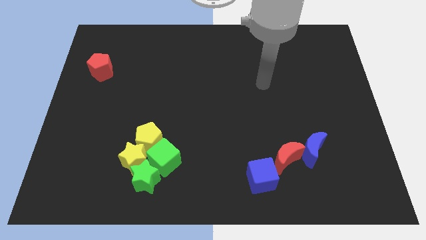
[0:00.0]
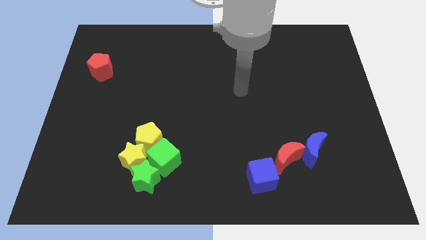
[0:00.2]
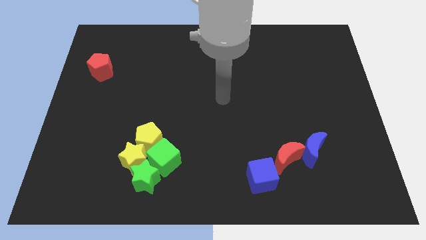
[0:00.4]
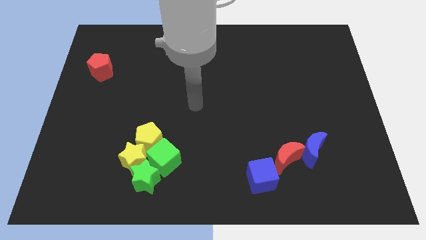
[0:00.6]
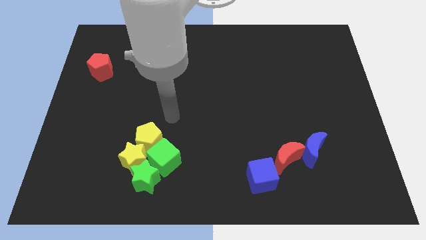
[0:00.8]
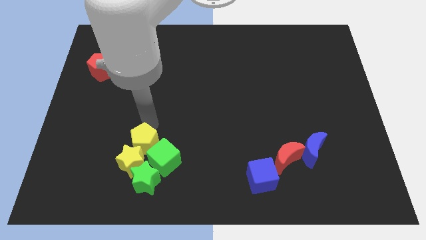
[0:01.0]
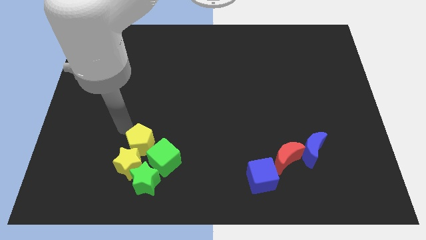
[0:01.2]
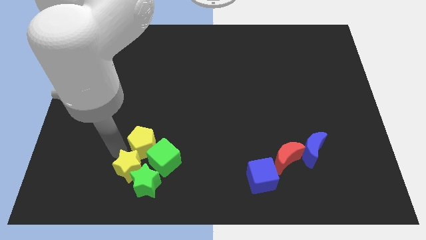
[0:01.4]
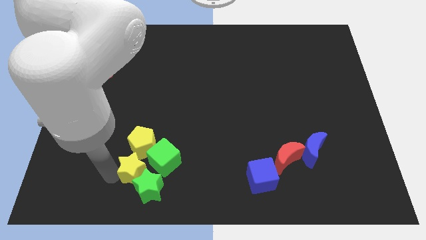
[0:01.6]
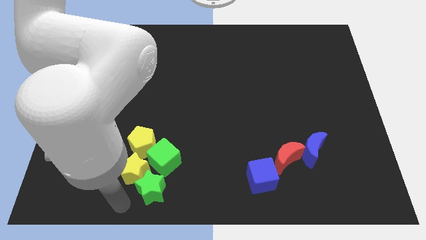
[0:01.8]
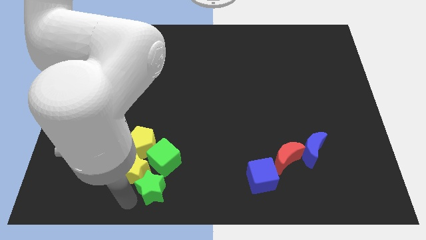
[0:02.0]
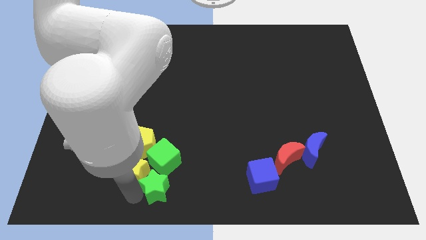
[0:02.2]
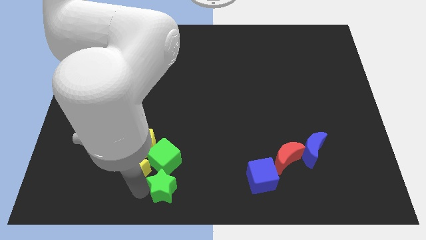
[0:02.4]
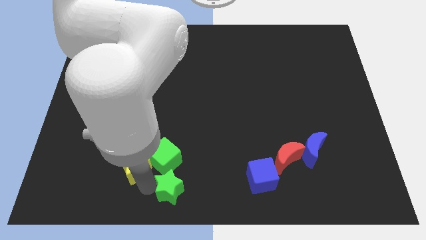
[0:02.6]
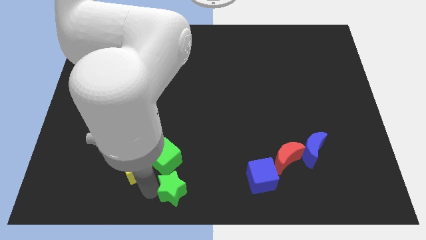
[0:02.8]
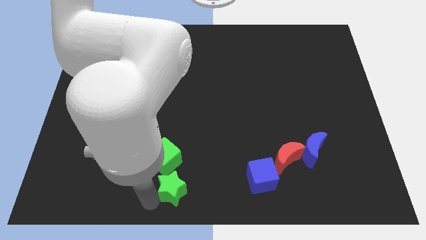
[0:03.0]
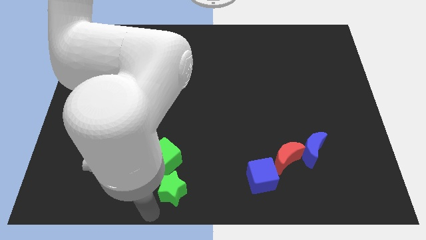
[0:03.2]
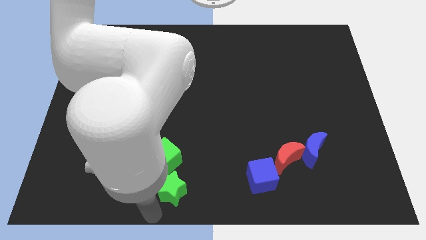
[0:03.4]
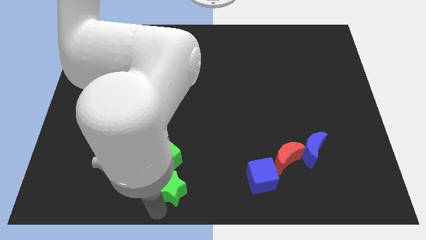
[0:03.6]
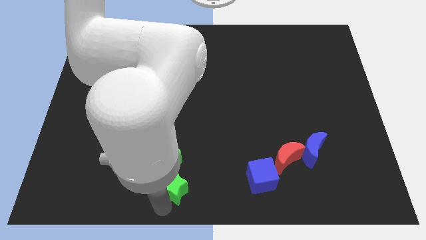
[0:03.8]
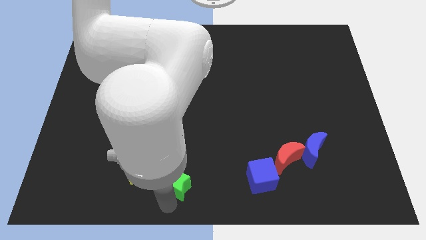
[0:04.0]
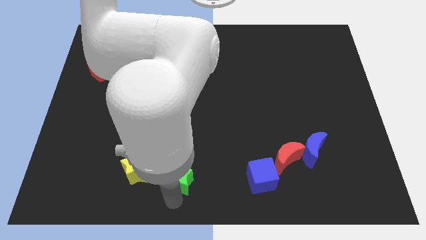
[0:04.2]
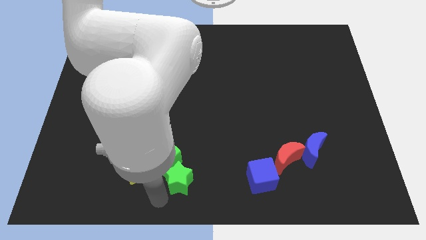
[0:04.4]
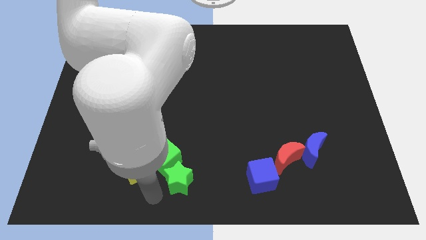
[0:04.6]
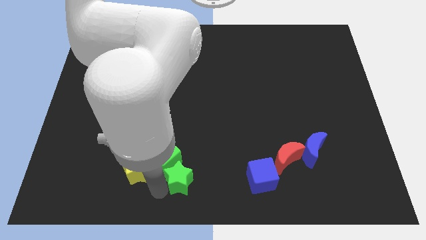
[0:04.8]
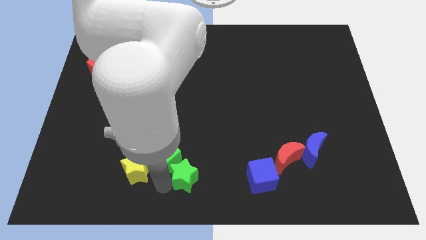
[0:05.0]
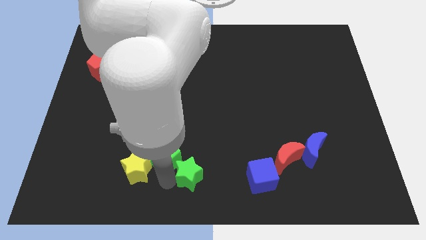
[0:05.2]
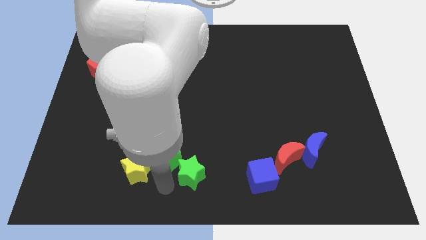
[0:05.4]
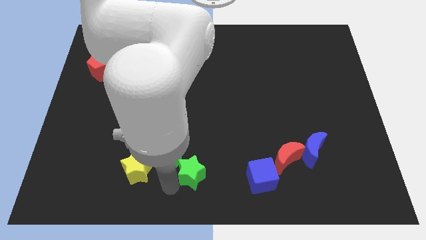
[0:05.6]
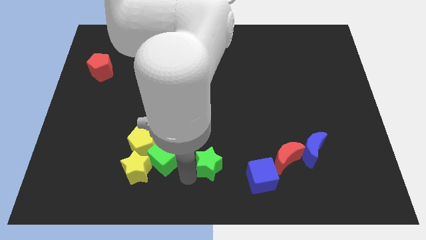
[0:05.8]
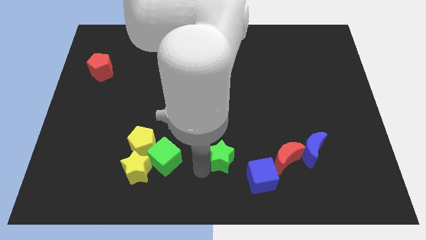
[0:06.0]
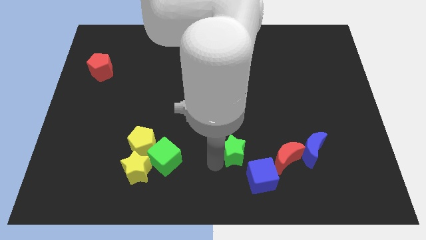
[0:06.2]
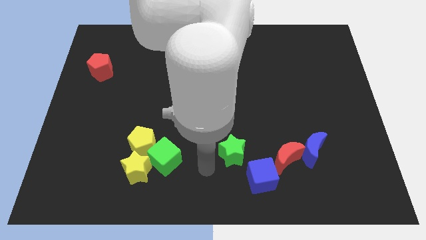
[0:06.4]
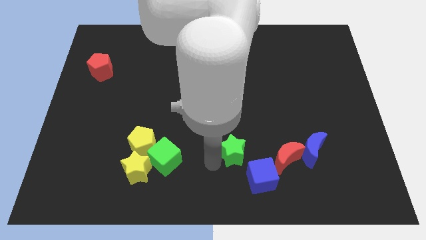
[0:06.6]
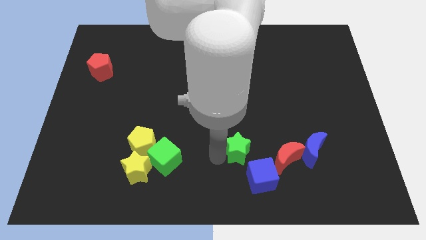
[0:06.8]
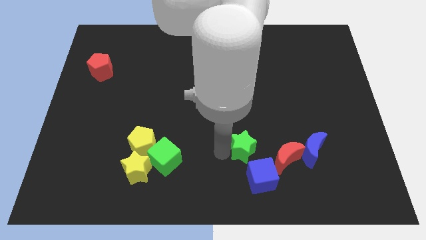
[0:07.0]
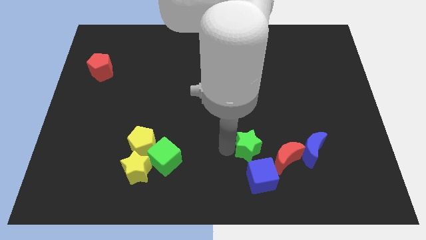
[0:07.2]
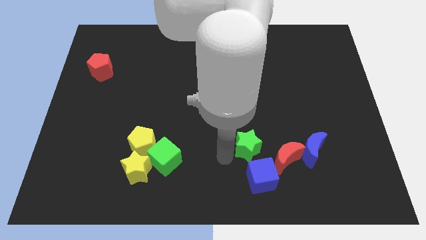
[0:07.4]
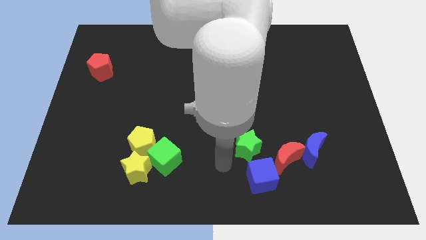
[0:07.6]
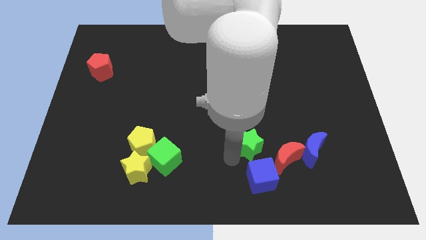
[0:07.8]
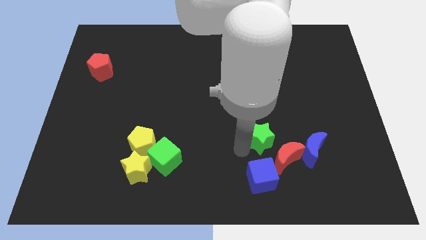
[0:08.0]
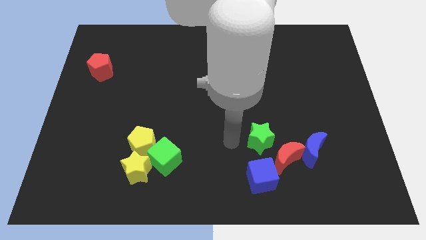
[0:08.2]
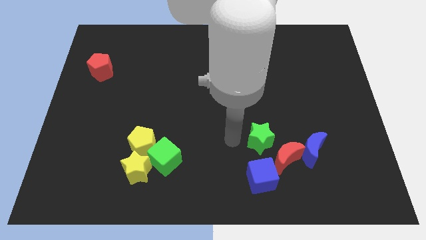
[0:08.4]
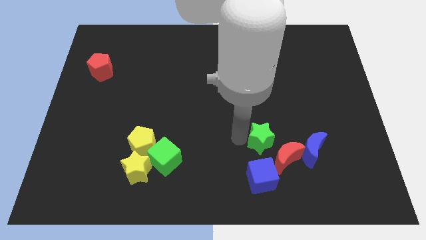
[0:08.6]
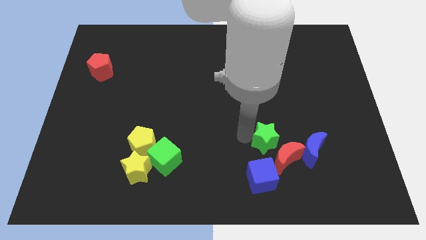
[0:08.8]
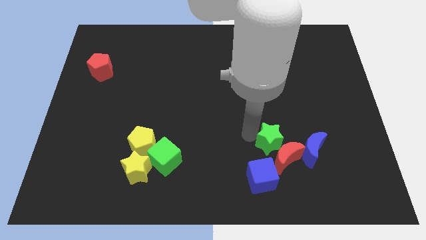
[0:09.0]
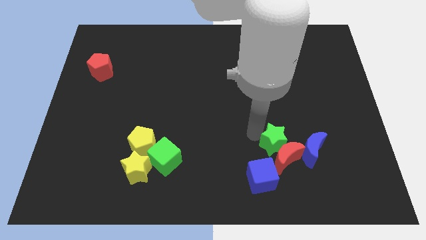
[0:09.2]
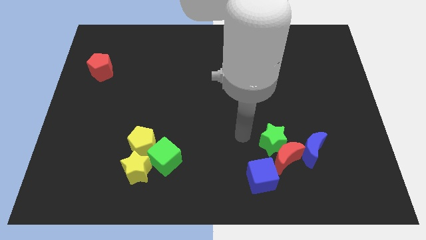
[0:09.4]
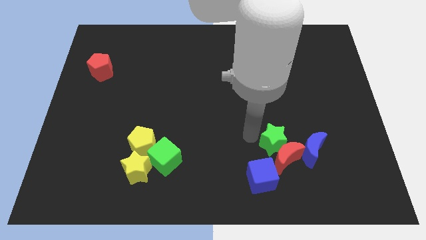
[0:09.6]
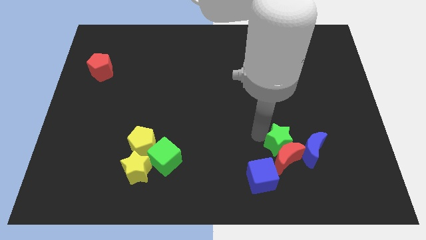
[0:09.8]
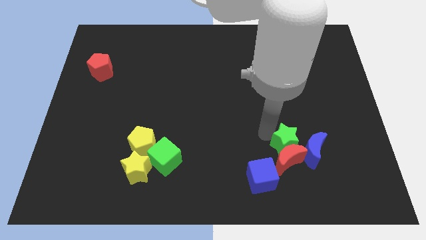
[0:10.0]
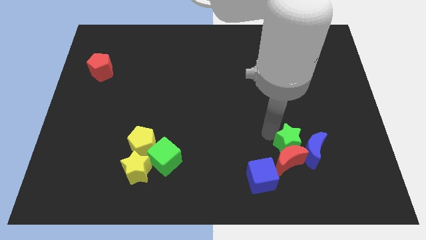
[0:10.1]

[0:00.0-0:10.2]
move the green star next to the blue moon

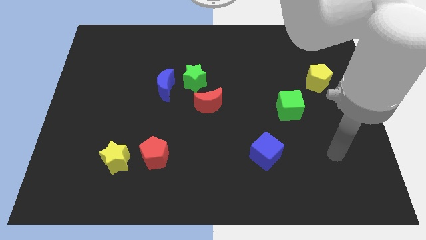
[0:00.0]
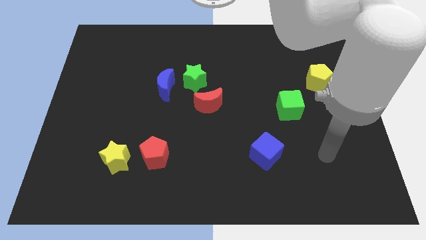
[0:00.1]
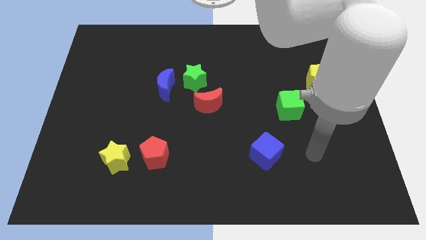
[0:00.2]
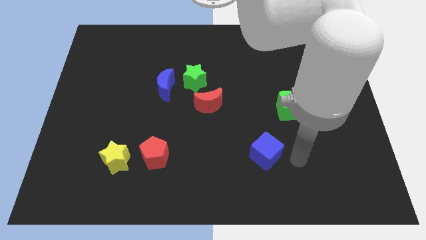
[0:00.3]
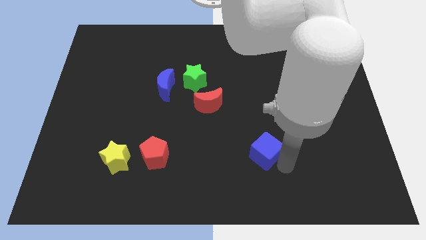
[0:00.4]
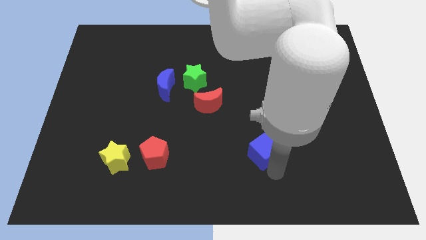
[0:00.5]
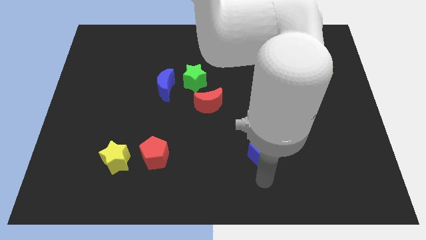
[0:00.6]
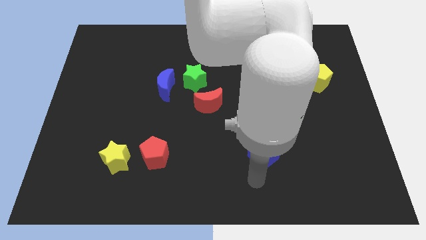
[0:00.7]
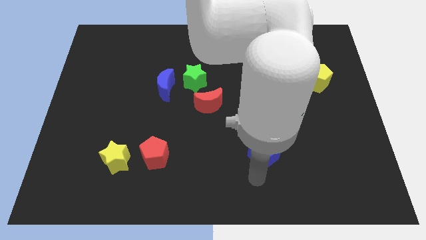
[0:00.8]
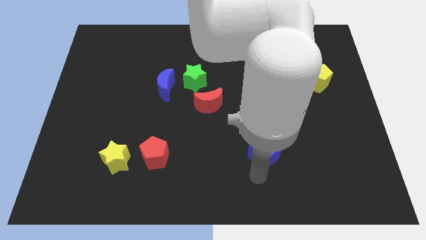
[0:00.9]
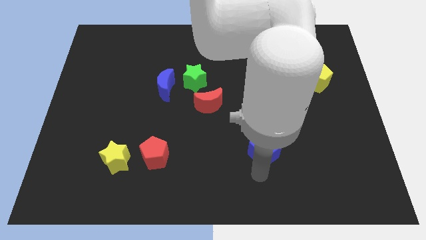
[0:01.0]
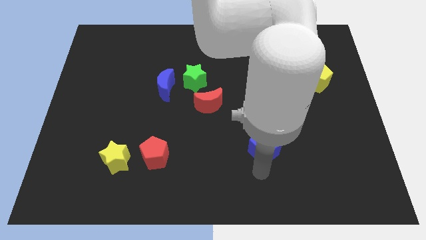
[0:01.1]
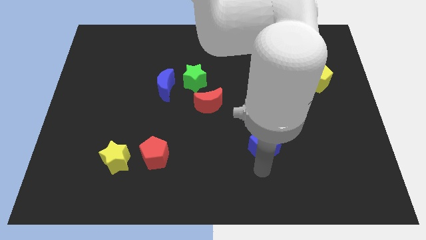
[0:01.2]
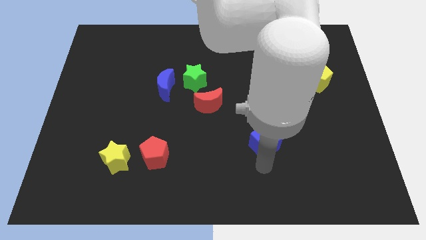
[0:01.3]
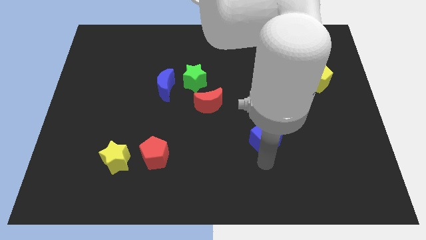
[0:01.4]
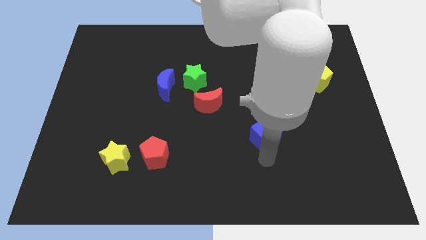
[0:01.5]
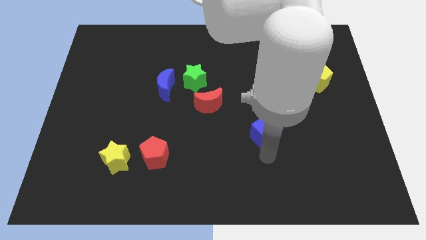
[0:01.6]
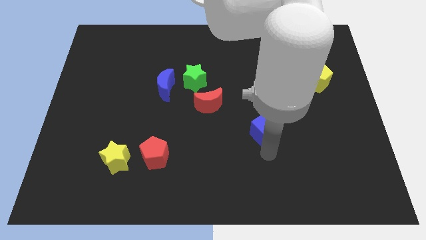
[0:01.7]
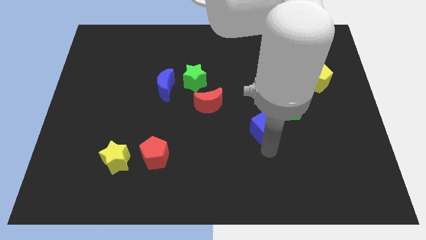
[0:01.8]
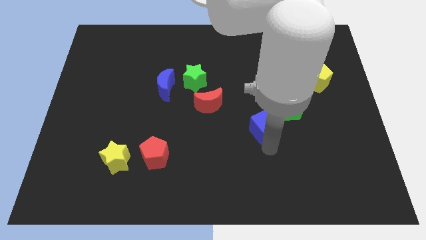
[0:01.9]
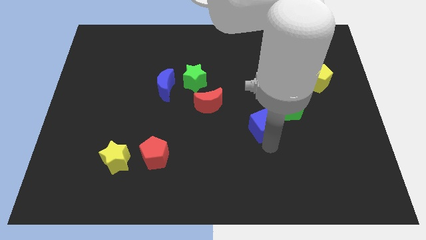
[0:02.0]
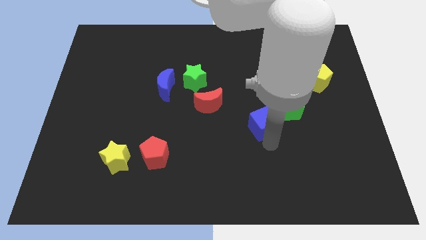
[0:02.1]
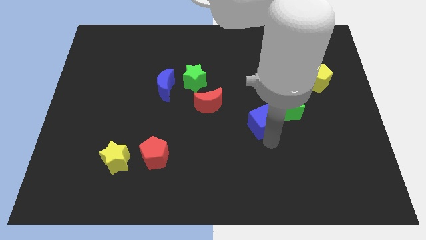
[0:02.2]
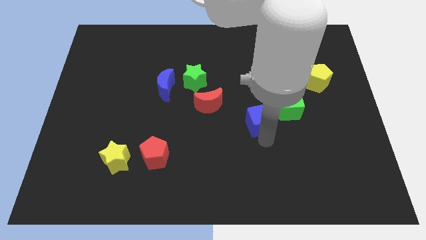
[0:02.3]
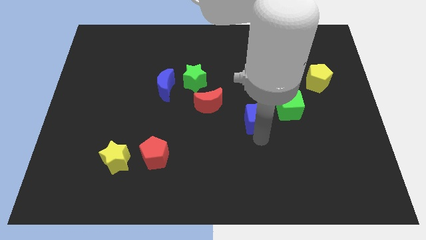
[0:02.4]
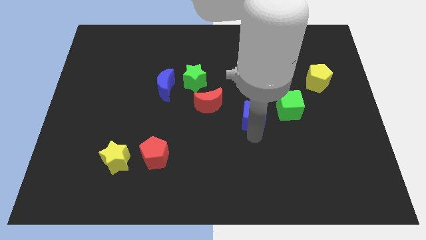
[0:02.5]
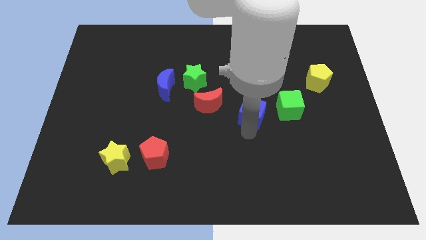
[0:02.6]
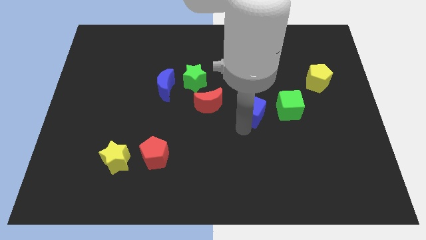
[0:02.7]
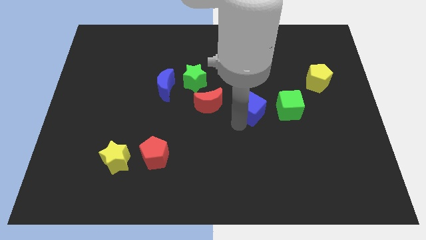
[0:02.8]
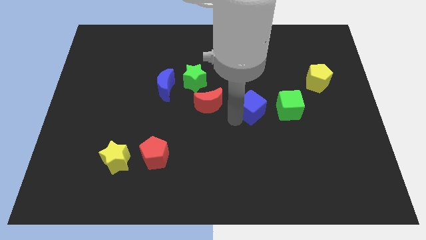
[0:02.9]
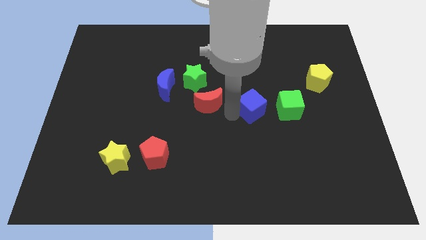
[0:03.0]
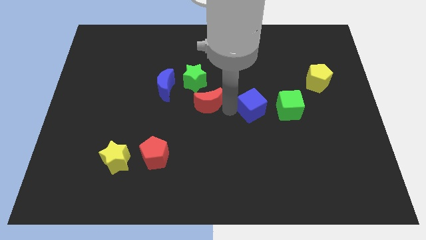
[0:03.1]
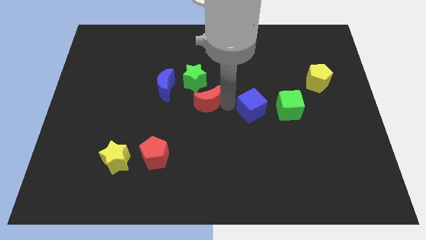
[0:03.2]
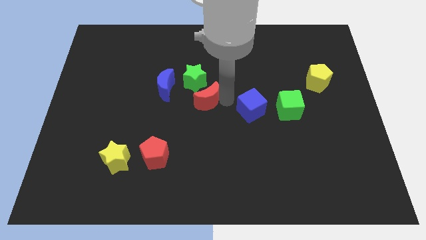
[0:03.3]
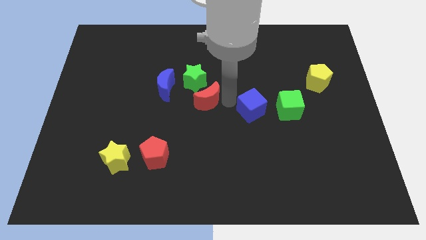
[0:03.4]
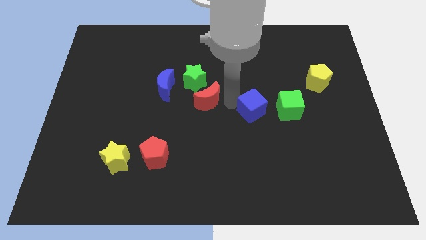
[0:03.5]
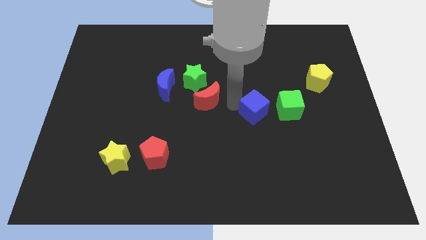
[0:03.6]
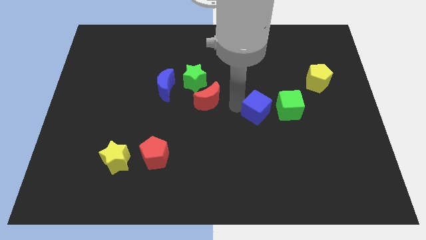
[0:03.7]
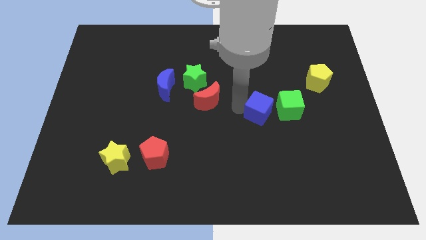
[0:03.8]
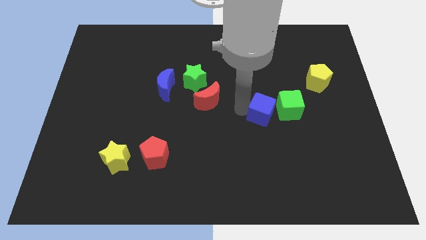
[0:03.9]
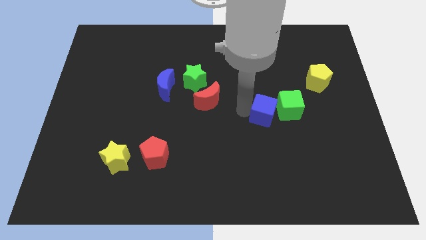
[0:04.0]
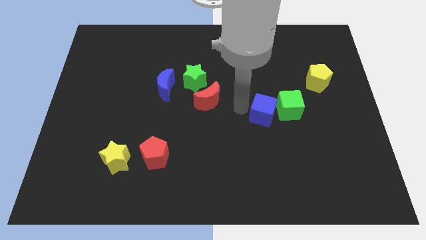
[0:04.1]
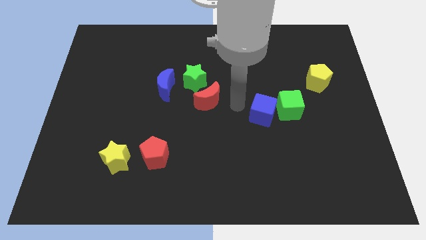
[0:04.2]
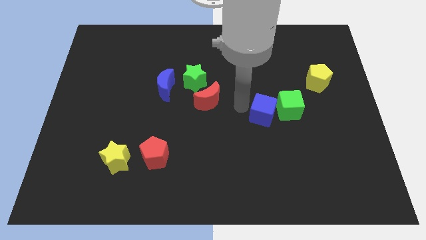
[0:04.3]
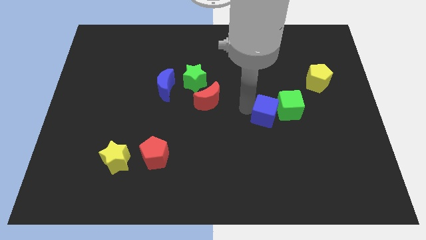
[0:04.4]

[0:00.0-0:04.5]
slide the blue cube towards the green cube
